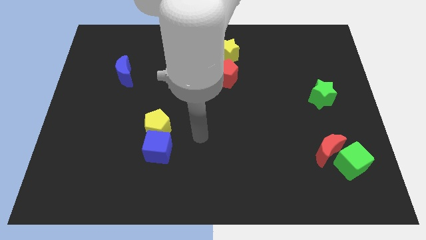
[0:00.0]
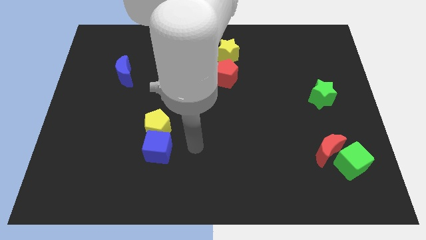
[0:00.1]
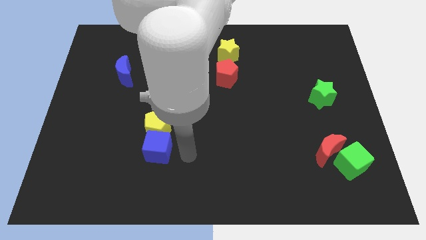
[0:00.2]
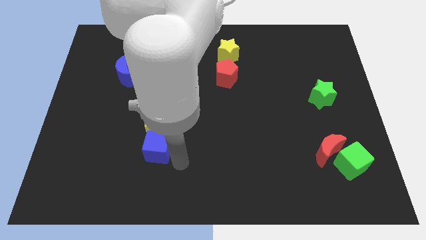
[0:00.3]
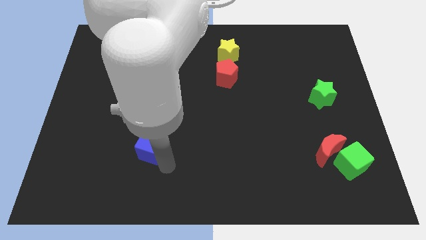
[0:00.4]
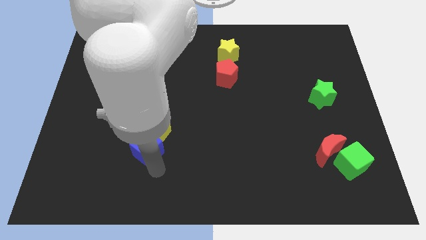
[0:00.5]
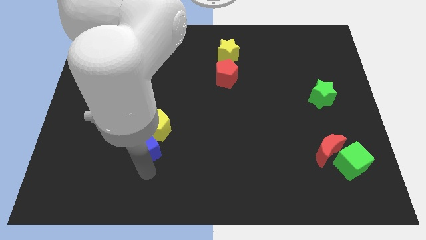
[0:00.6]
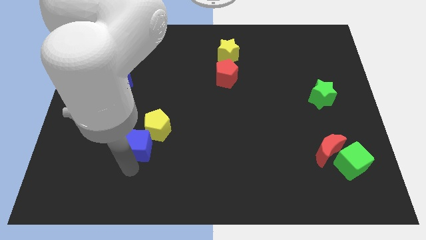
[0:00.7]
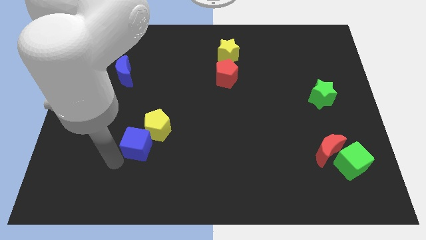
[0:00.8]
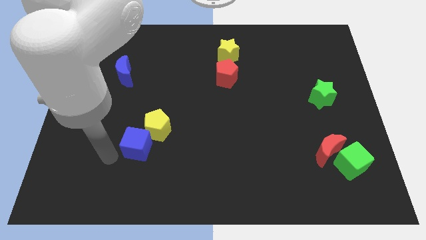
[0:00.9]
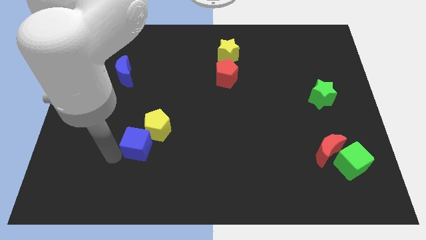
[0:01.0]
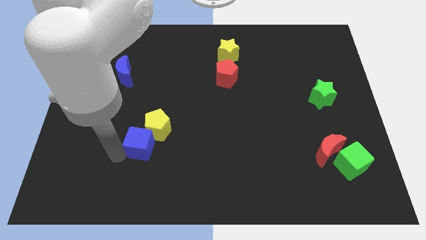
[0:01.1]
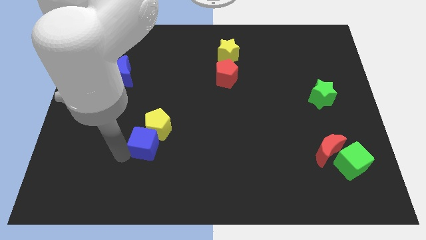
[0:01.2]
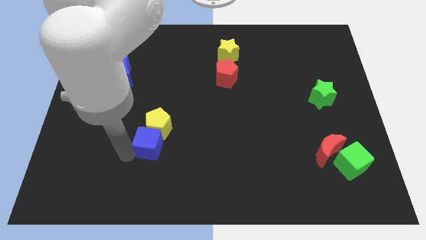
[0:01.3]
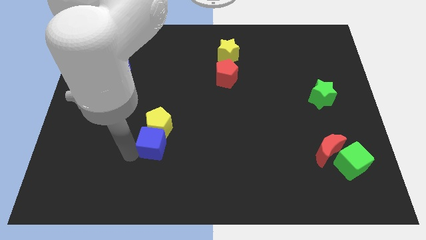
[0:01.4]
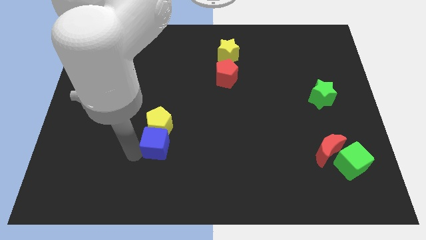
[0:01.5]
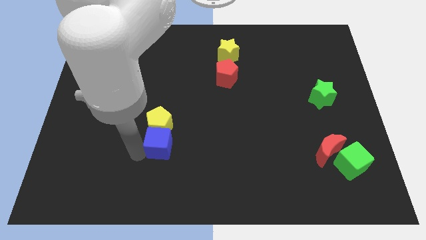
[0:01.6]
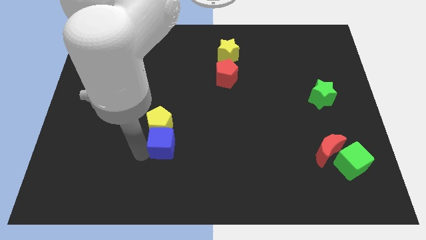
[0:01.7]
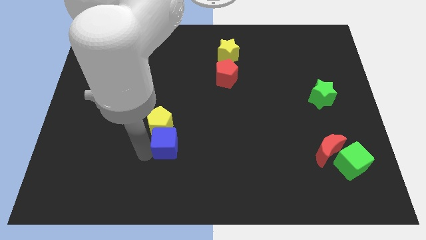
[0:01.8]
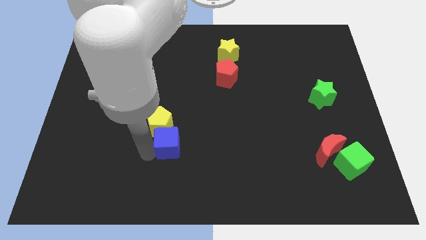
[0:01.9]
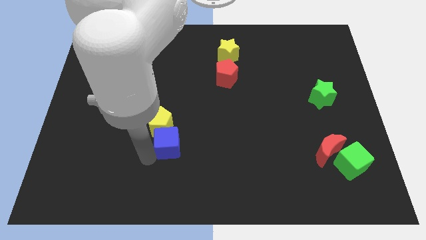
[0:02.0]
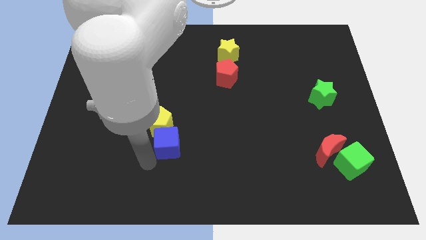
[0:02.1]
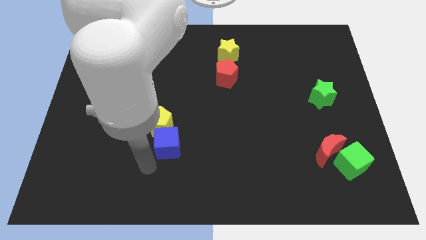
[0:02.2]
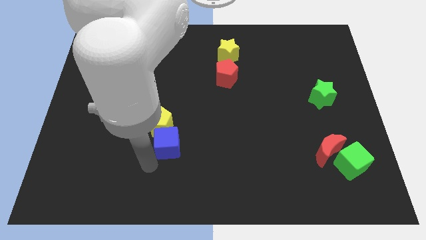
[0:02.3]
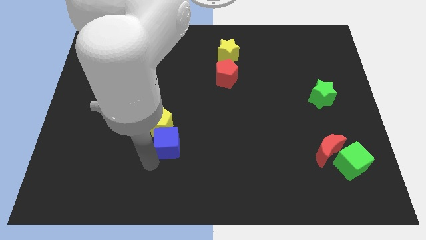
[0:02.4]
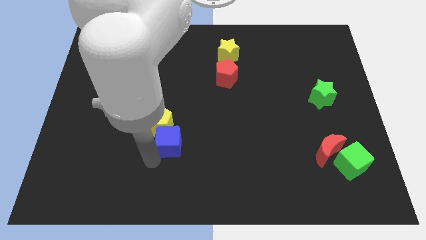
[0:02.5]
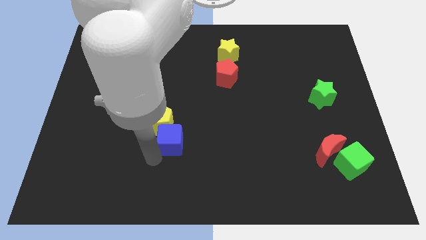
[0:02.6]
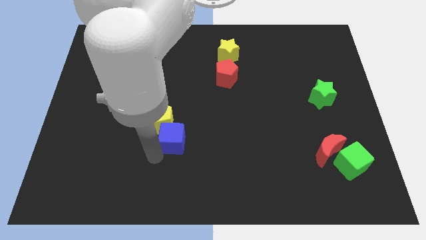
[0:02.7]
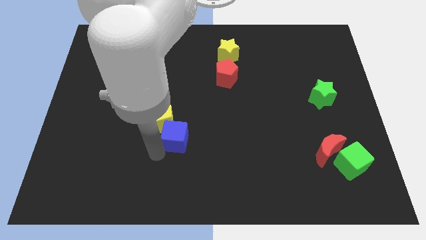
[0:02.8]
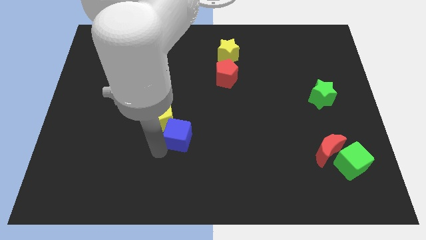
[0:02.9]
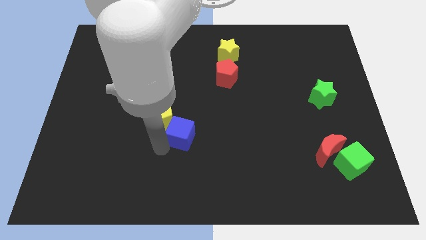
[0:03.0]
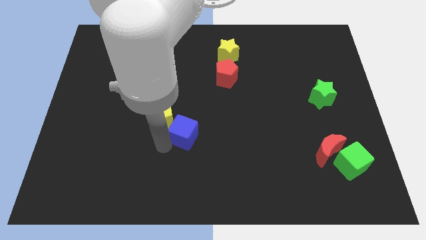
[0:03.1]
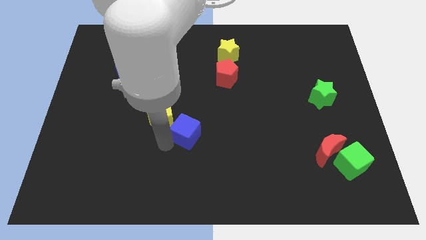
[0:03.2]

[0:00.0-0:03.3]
slide the blue cube somewhat upwards and then to the right

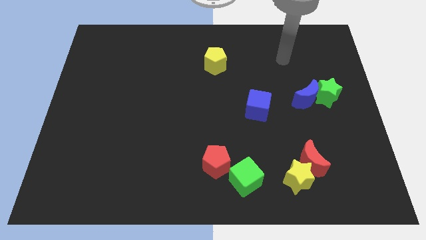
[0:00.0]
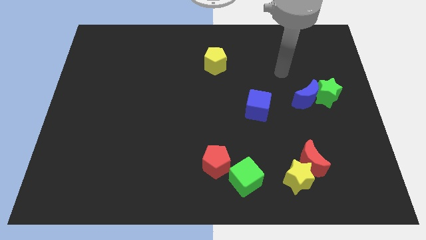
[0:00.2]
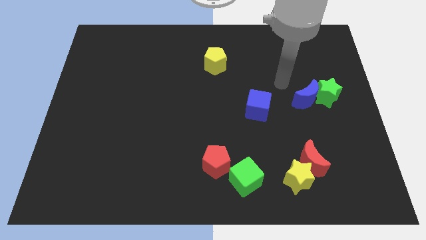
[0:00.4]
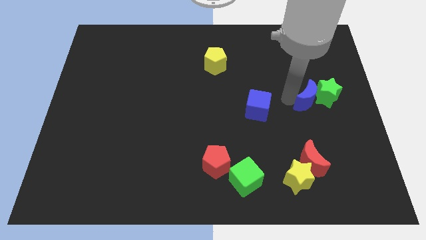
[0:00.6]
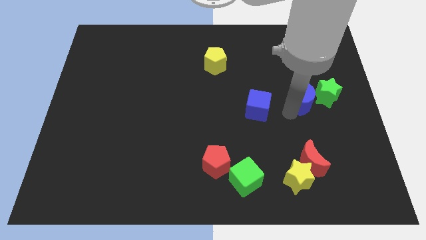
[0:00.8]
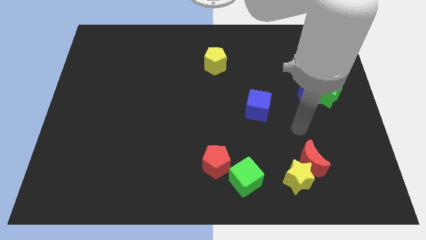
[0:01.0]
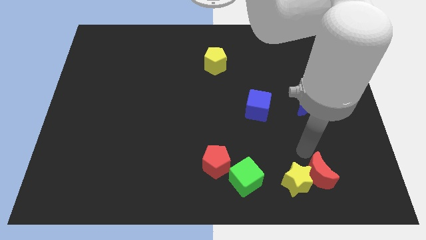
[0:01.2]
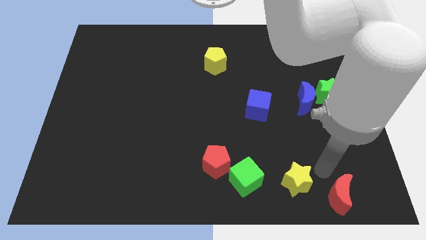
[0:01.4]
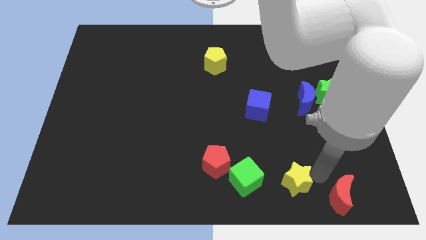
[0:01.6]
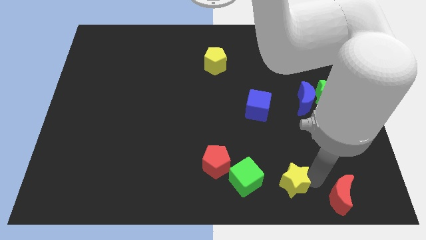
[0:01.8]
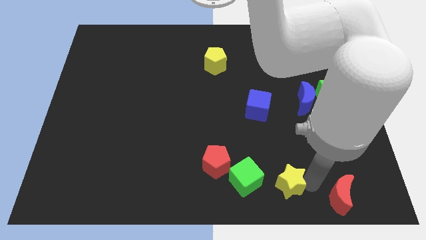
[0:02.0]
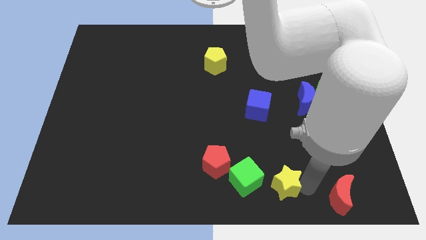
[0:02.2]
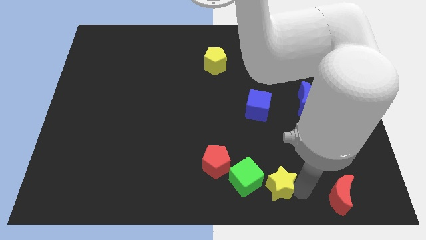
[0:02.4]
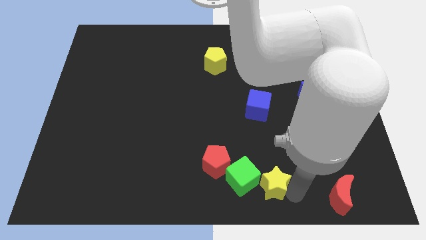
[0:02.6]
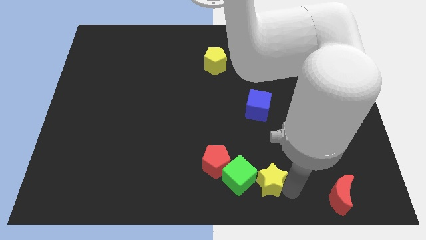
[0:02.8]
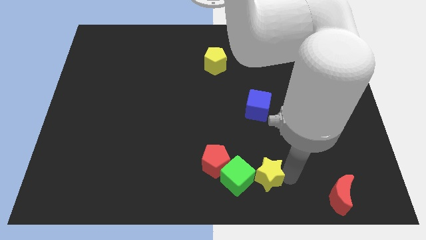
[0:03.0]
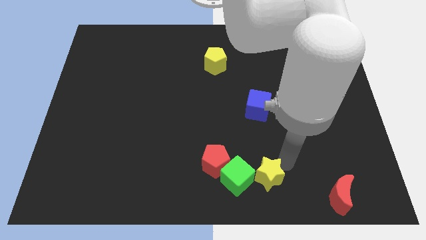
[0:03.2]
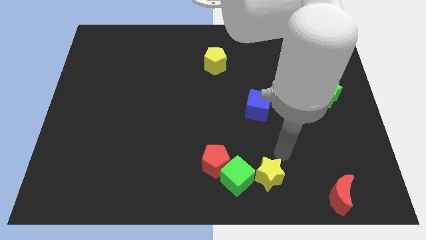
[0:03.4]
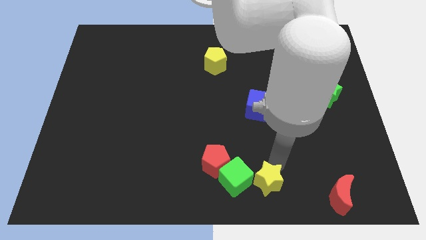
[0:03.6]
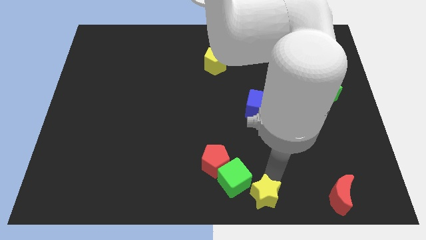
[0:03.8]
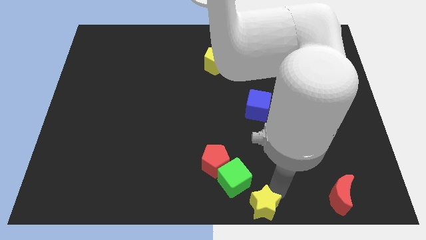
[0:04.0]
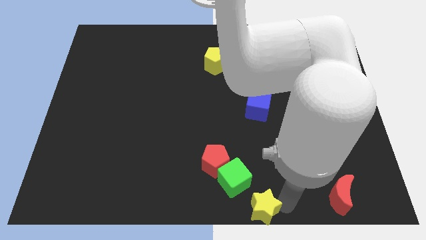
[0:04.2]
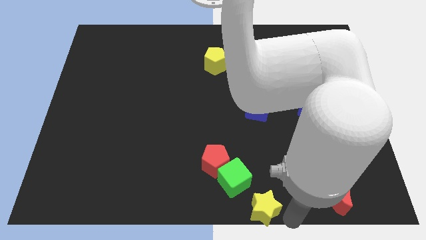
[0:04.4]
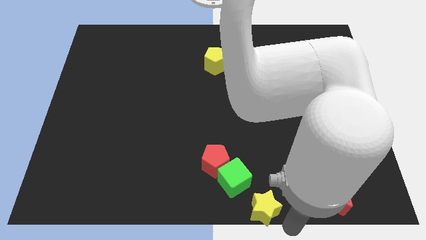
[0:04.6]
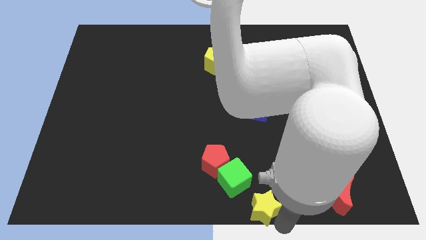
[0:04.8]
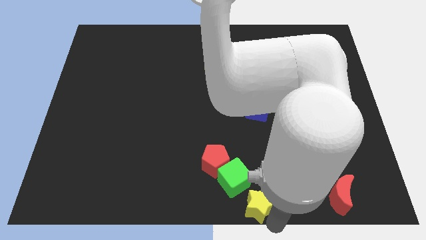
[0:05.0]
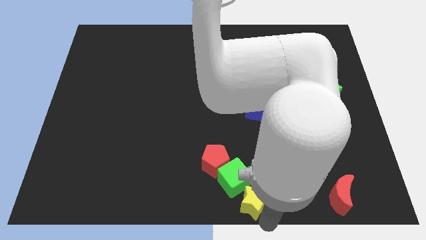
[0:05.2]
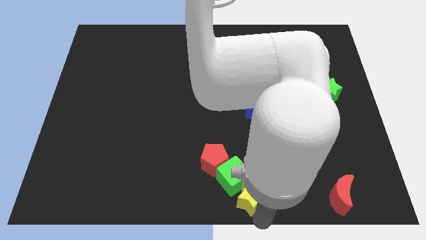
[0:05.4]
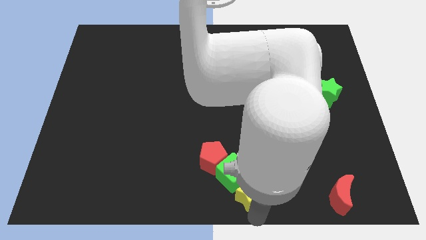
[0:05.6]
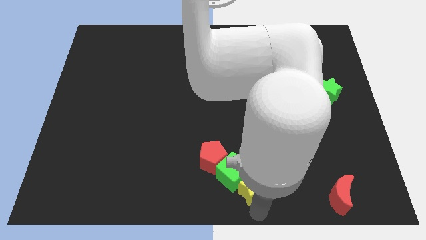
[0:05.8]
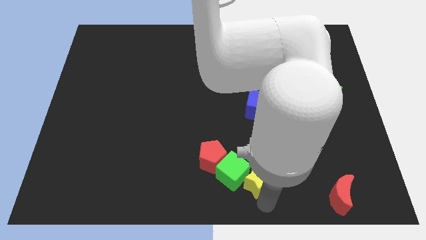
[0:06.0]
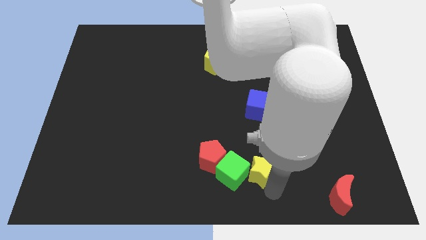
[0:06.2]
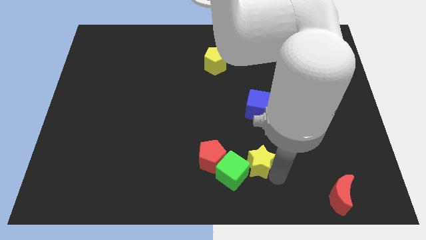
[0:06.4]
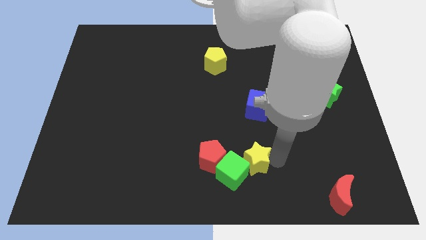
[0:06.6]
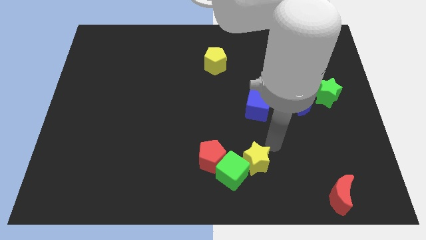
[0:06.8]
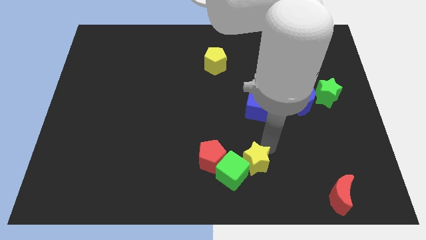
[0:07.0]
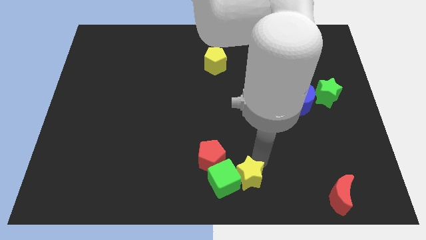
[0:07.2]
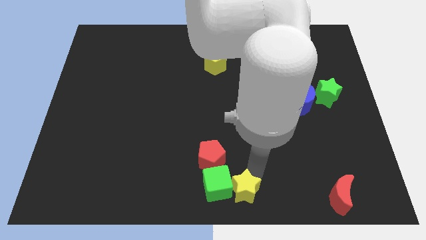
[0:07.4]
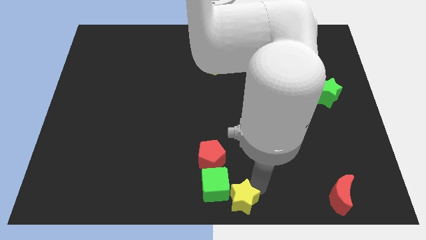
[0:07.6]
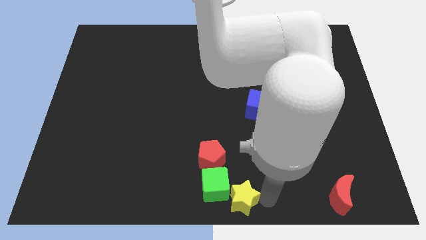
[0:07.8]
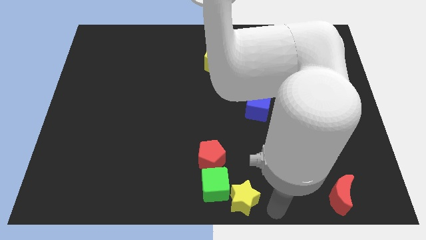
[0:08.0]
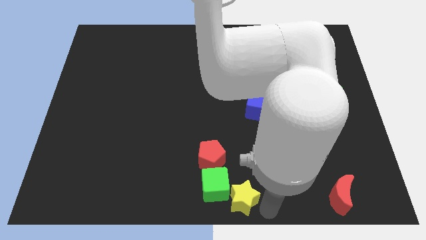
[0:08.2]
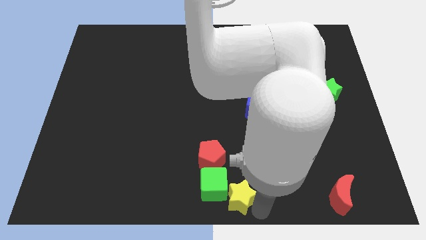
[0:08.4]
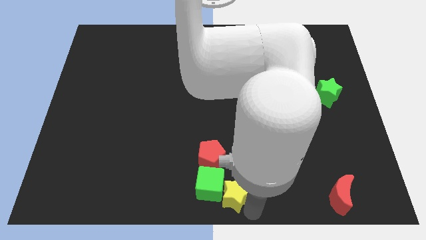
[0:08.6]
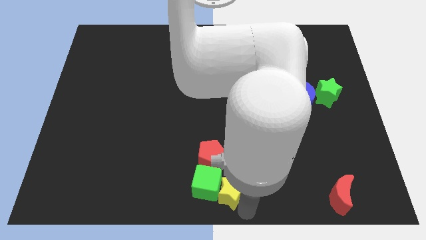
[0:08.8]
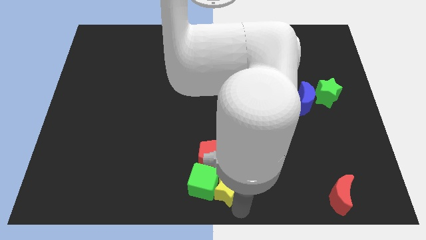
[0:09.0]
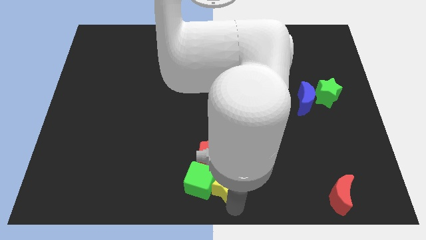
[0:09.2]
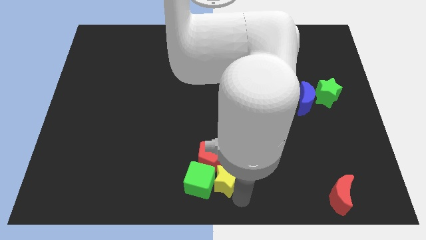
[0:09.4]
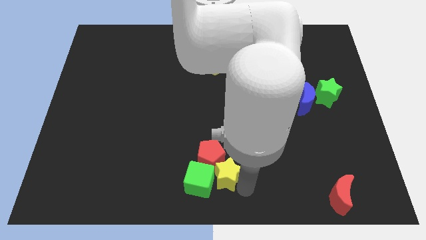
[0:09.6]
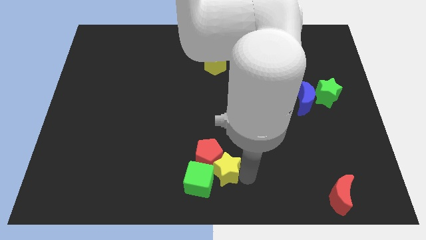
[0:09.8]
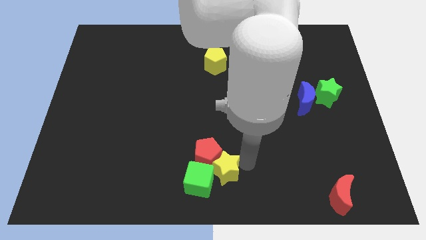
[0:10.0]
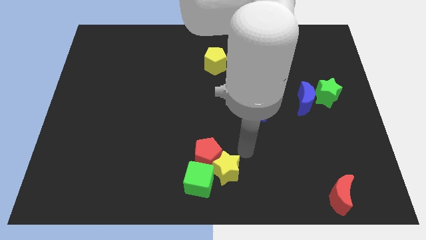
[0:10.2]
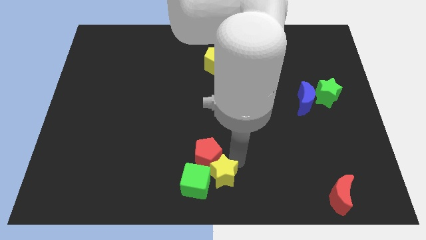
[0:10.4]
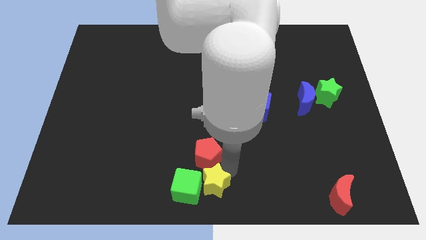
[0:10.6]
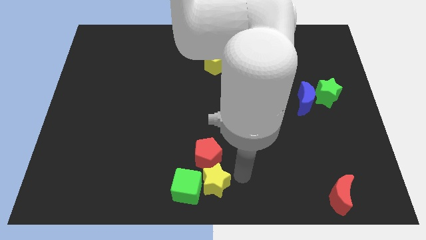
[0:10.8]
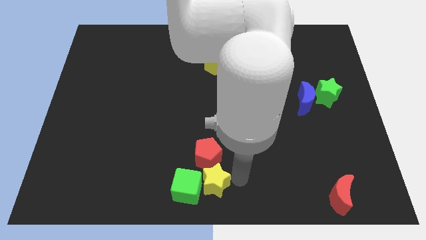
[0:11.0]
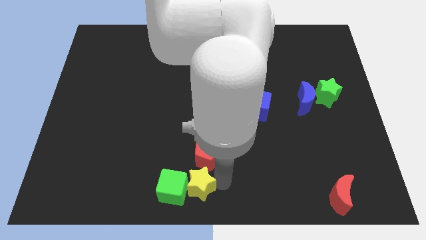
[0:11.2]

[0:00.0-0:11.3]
push the yellow star left
